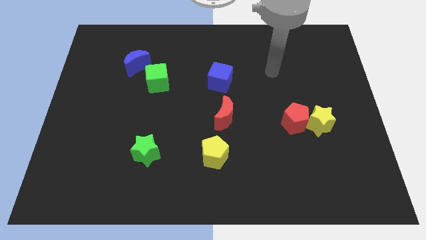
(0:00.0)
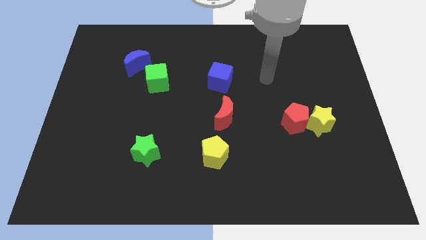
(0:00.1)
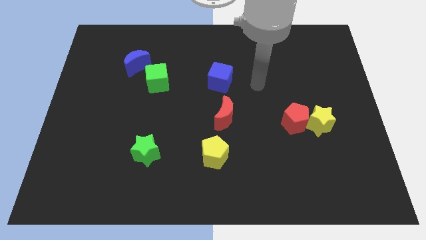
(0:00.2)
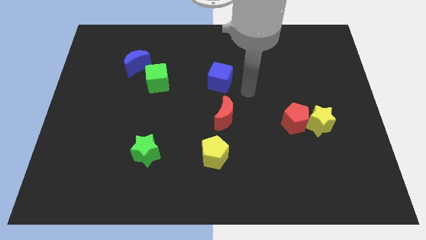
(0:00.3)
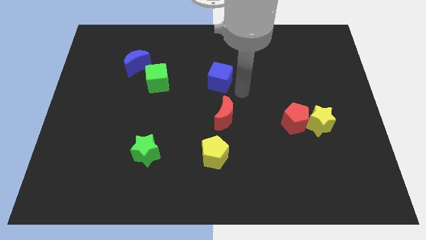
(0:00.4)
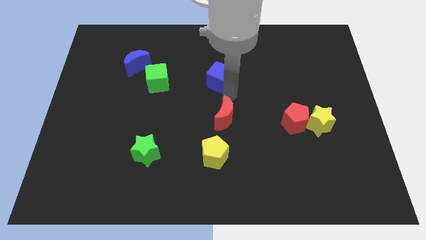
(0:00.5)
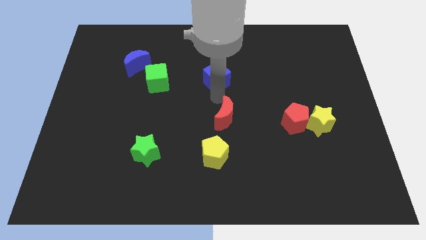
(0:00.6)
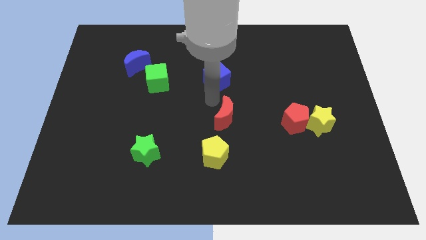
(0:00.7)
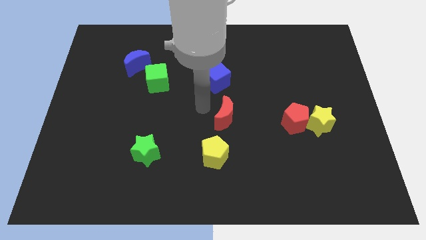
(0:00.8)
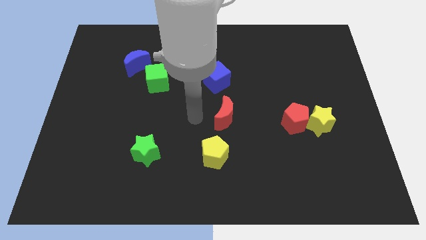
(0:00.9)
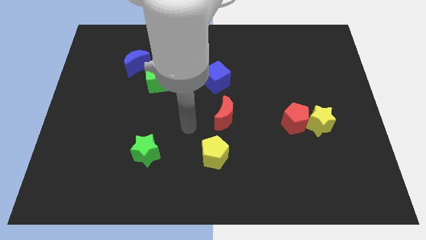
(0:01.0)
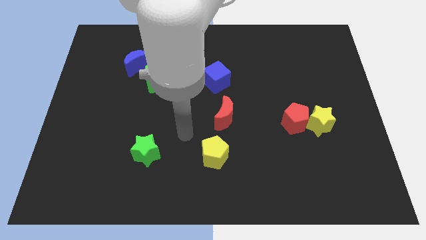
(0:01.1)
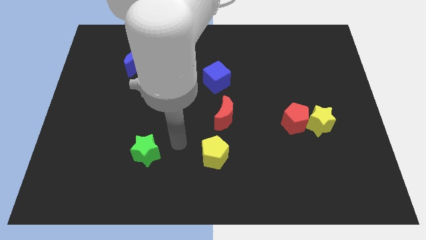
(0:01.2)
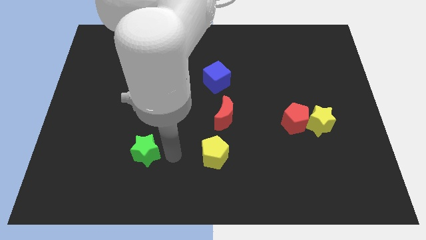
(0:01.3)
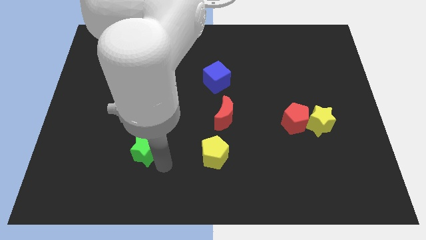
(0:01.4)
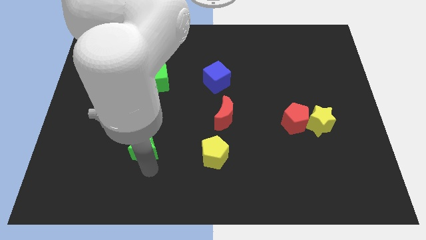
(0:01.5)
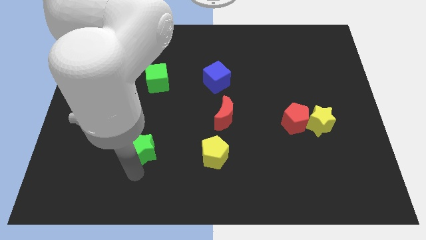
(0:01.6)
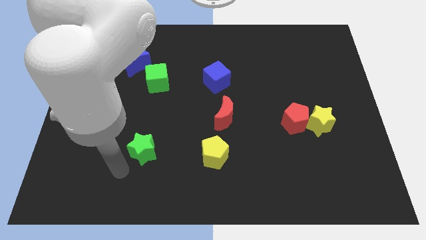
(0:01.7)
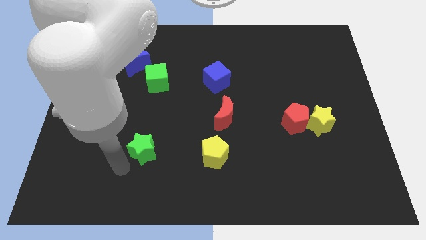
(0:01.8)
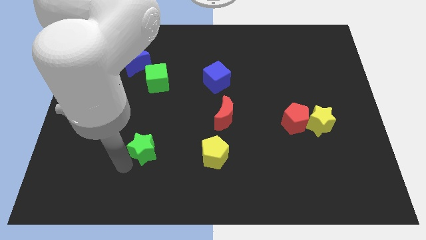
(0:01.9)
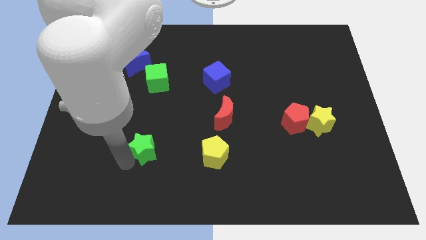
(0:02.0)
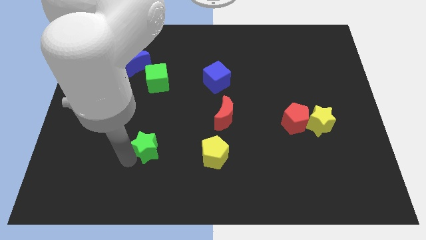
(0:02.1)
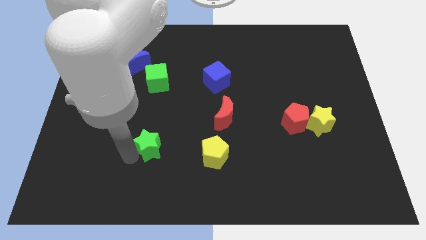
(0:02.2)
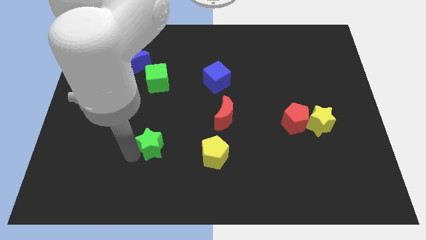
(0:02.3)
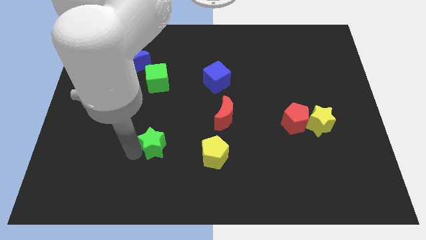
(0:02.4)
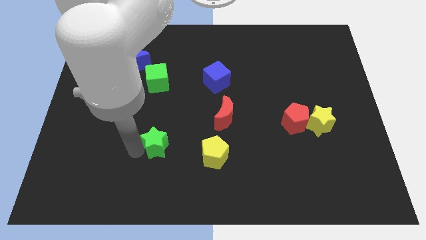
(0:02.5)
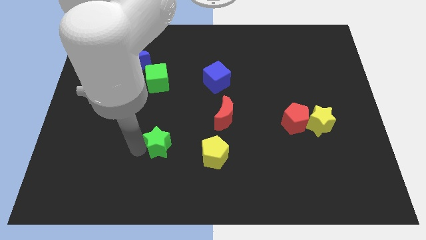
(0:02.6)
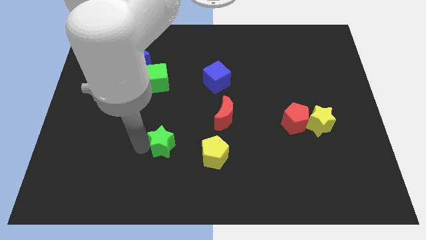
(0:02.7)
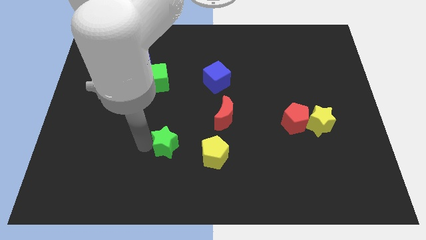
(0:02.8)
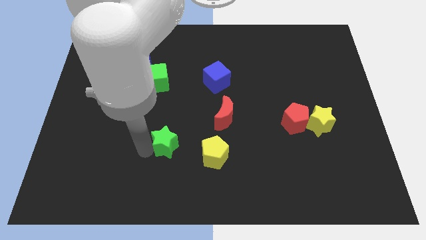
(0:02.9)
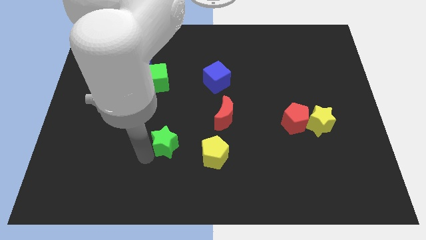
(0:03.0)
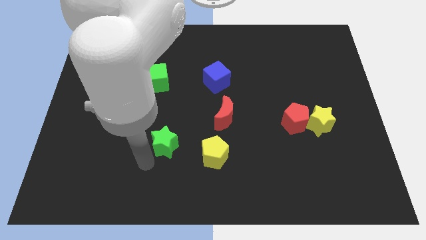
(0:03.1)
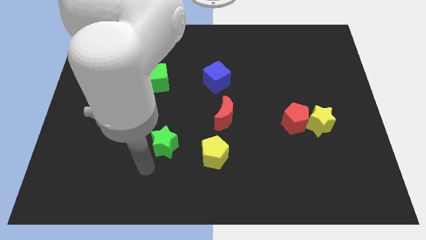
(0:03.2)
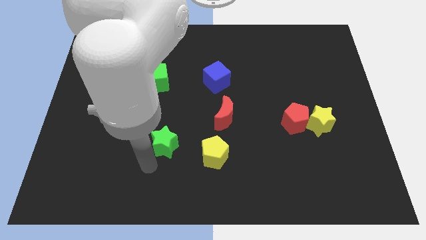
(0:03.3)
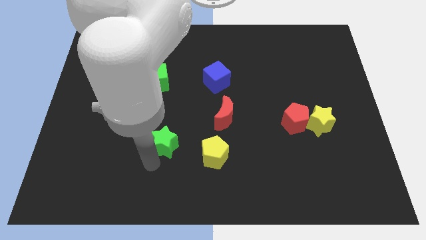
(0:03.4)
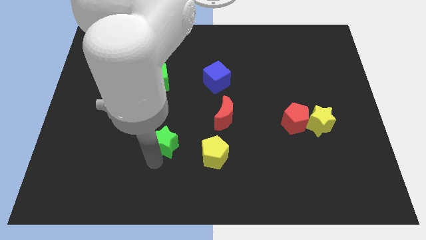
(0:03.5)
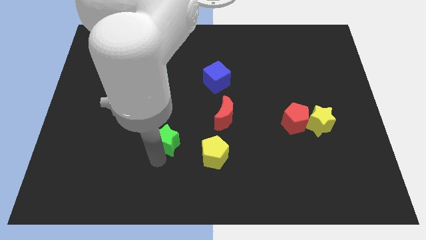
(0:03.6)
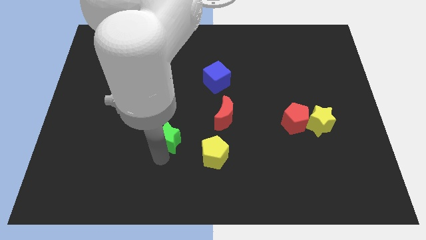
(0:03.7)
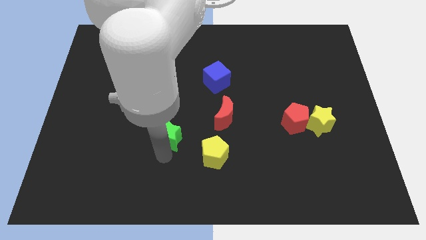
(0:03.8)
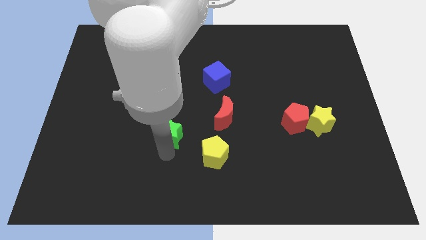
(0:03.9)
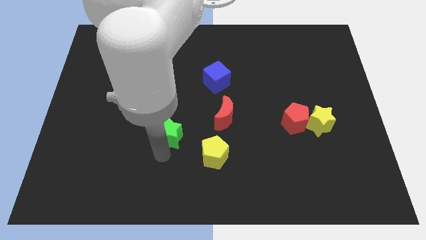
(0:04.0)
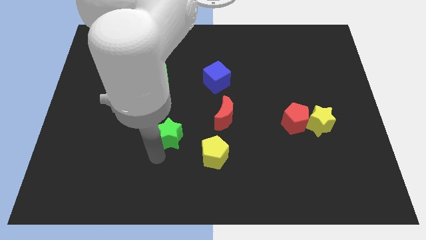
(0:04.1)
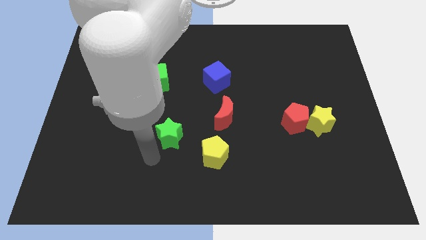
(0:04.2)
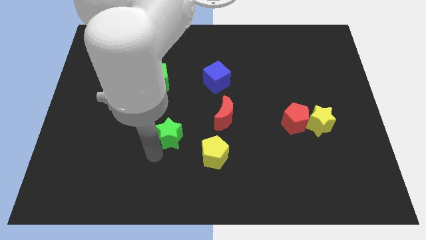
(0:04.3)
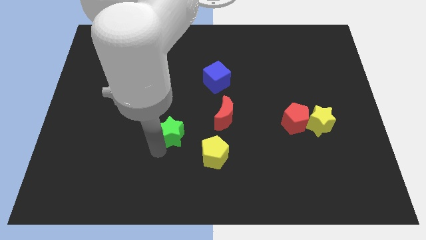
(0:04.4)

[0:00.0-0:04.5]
slightly move the green star upwards and to the right

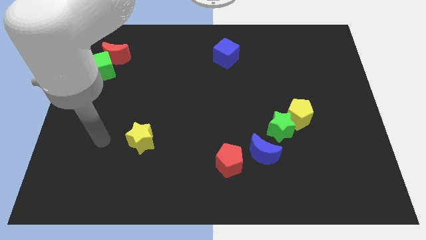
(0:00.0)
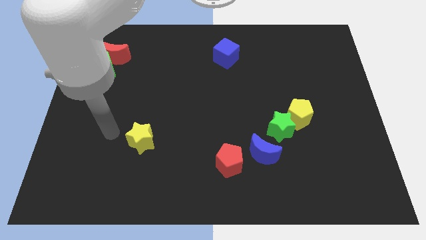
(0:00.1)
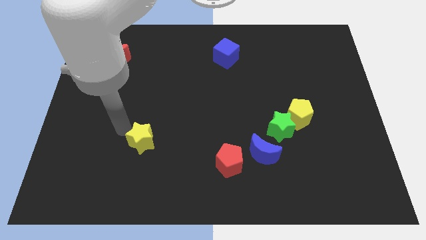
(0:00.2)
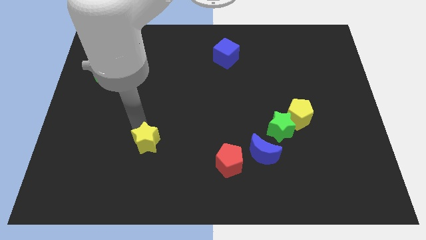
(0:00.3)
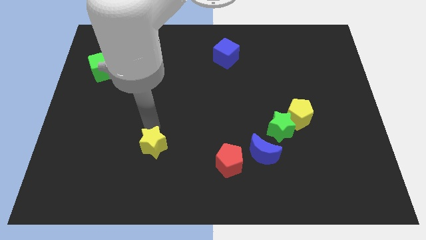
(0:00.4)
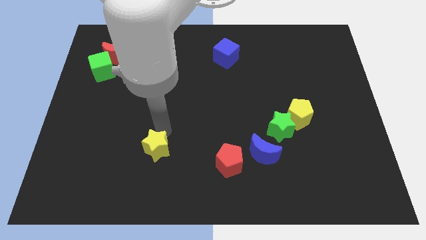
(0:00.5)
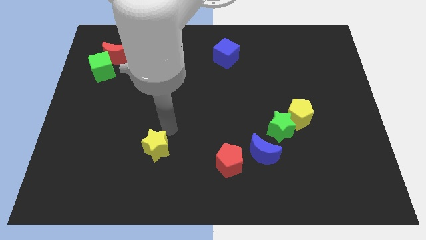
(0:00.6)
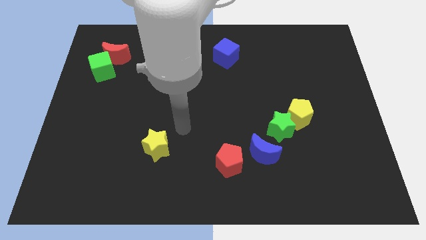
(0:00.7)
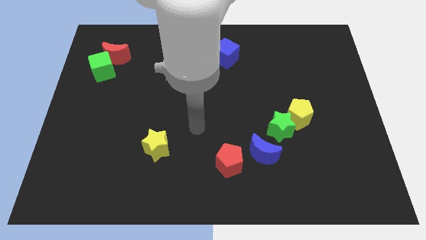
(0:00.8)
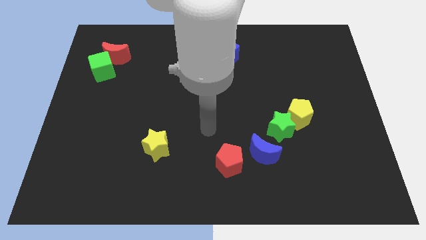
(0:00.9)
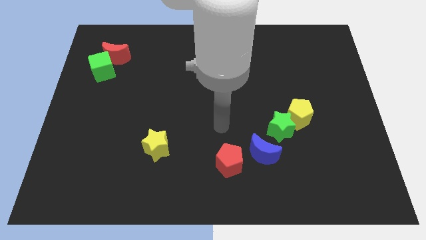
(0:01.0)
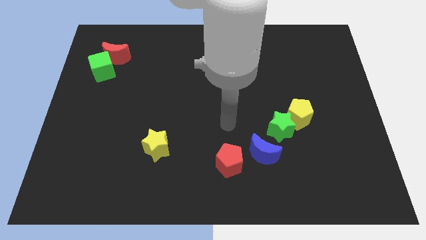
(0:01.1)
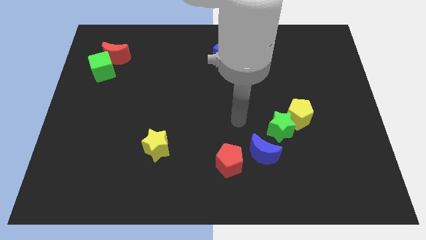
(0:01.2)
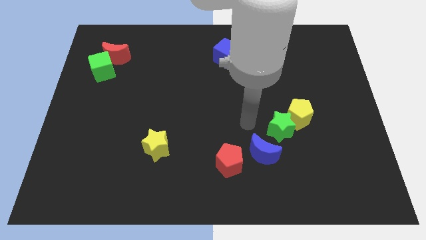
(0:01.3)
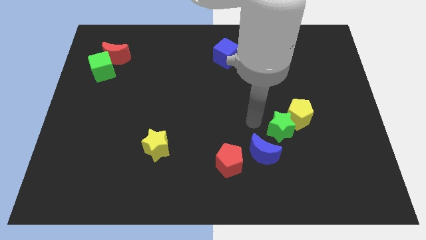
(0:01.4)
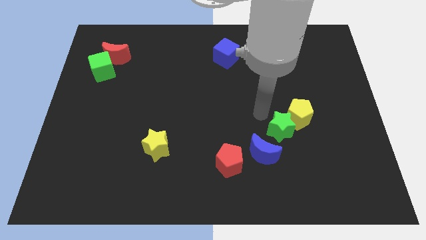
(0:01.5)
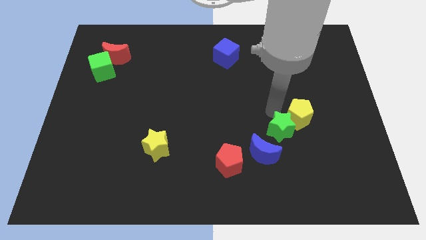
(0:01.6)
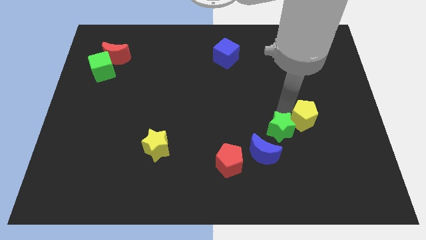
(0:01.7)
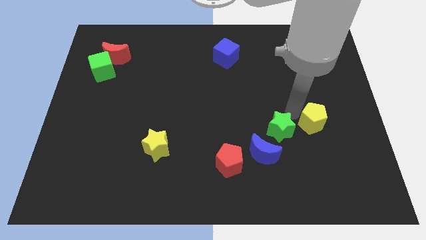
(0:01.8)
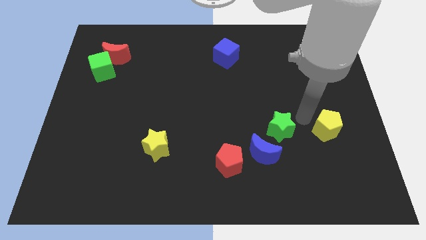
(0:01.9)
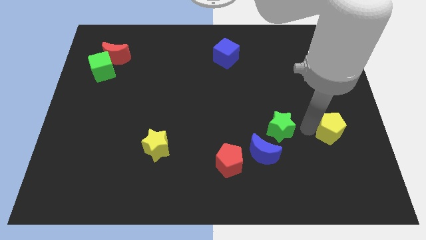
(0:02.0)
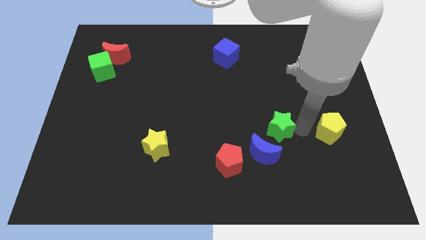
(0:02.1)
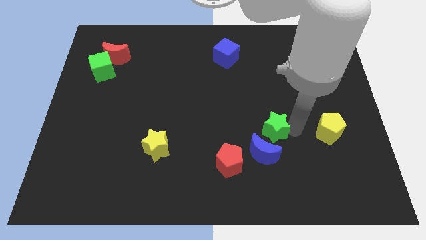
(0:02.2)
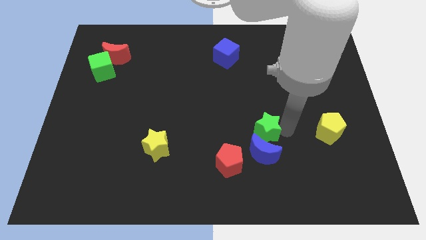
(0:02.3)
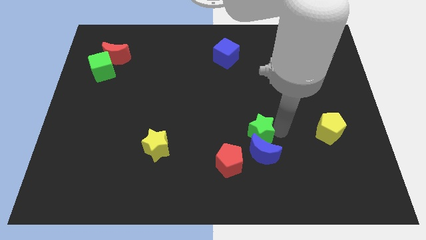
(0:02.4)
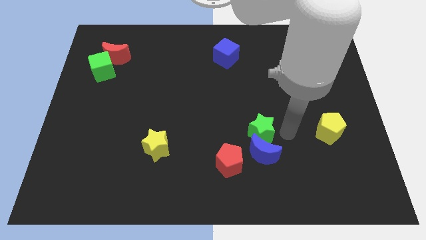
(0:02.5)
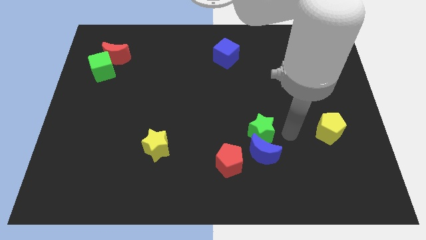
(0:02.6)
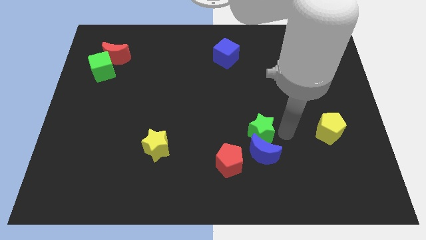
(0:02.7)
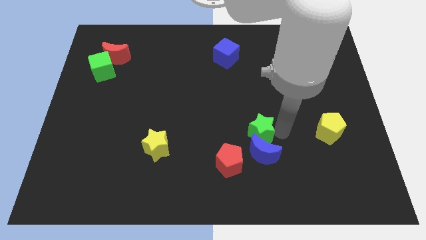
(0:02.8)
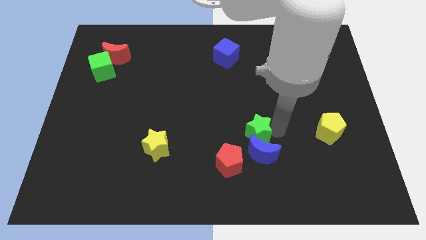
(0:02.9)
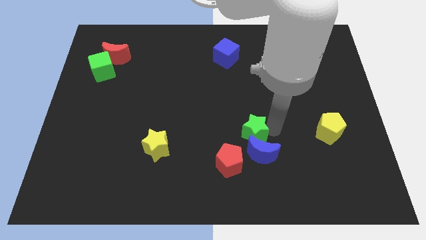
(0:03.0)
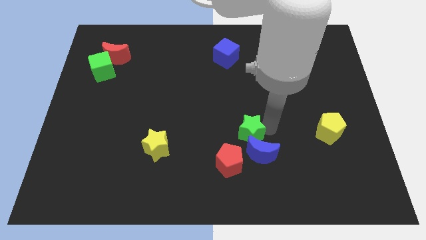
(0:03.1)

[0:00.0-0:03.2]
slide the green star left a little

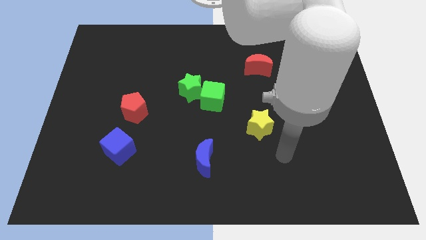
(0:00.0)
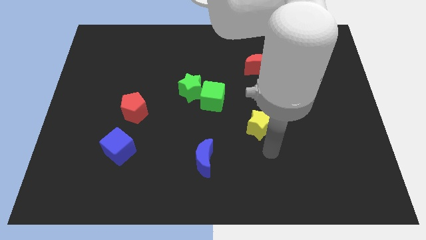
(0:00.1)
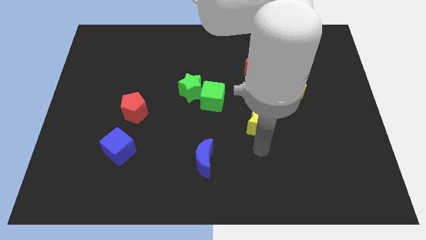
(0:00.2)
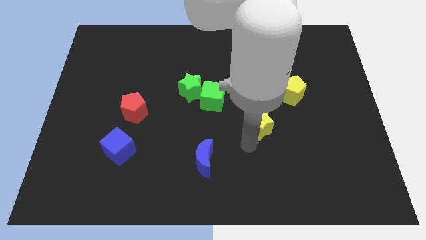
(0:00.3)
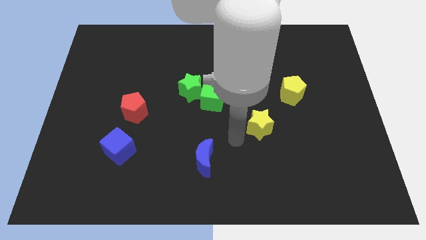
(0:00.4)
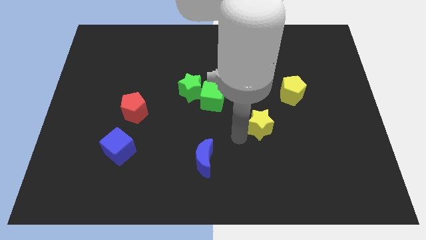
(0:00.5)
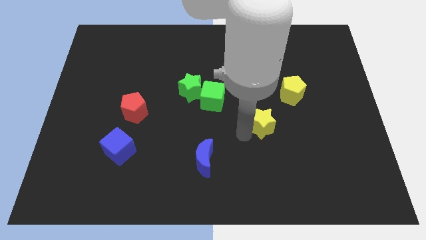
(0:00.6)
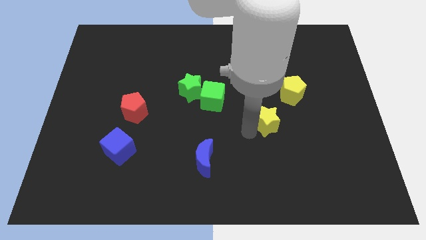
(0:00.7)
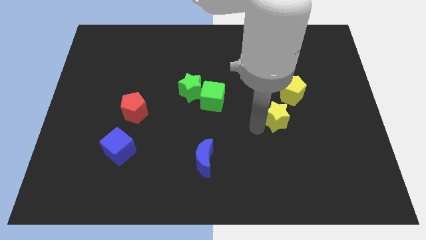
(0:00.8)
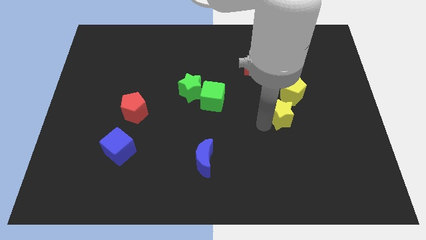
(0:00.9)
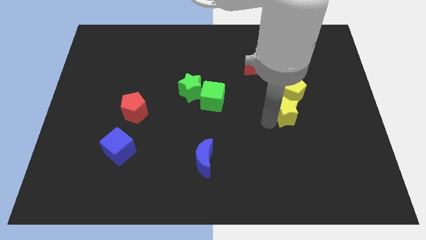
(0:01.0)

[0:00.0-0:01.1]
slide the yellow star a bit upwards and to the right diagonally
